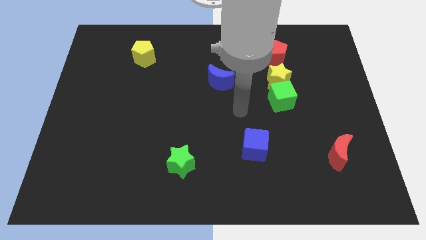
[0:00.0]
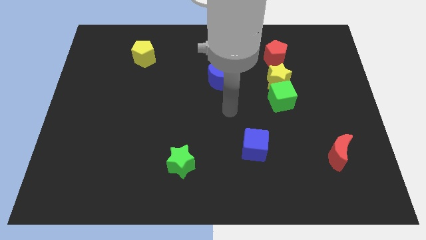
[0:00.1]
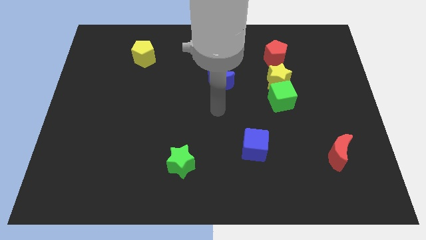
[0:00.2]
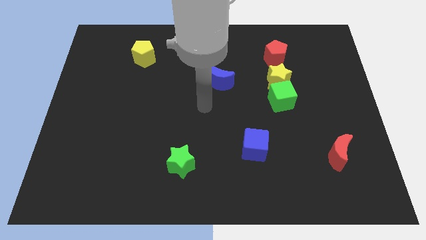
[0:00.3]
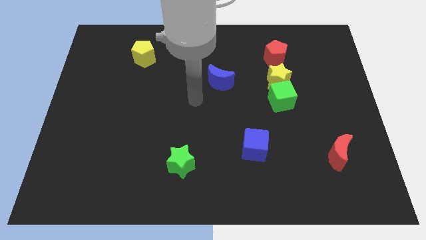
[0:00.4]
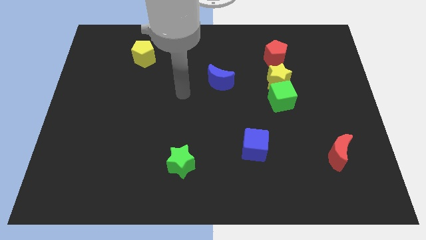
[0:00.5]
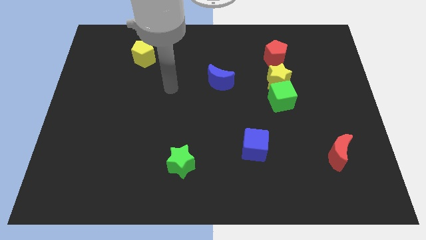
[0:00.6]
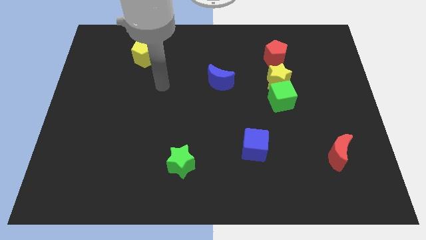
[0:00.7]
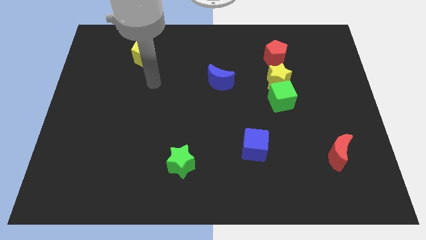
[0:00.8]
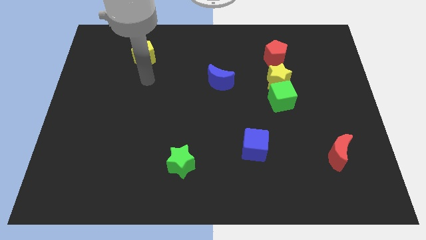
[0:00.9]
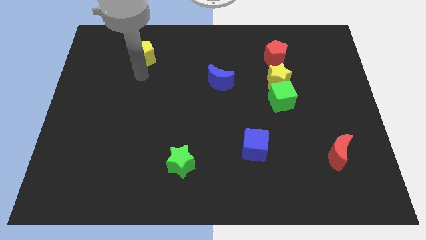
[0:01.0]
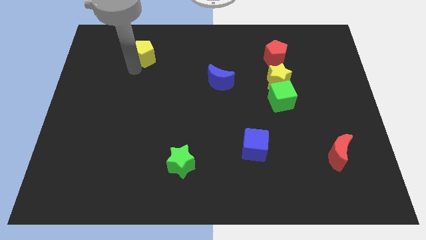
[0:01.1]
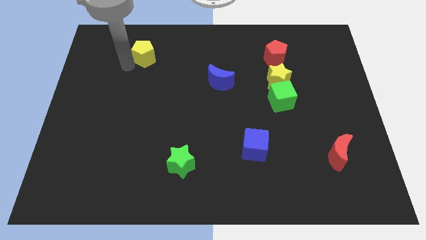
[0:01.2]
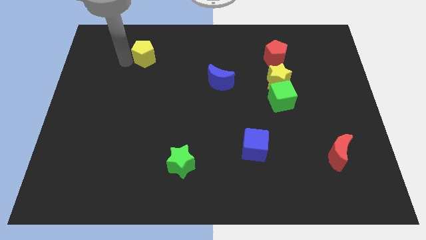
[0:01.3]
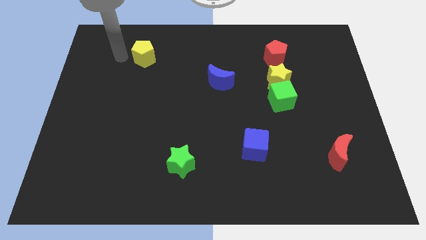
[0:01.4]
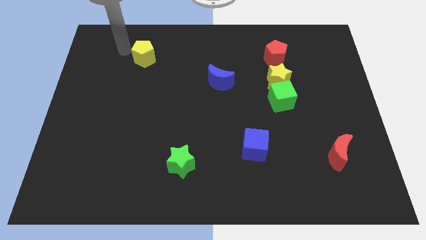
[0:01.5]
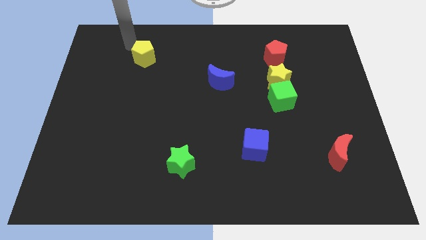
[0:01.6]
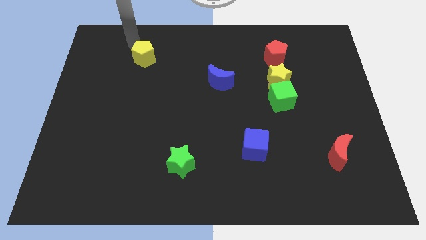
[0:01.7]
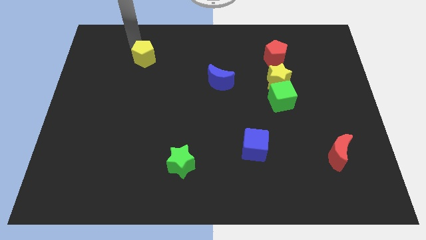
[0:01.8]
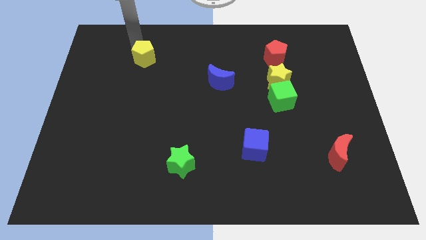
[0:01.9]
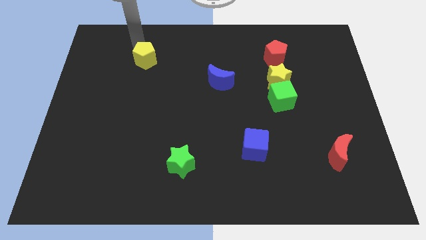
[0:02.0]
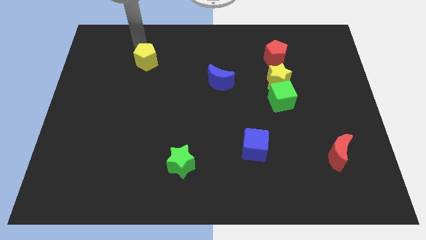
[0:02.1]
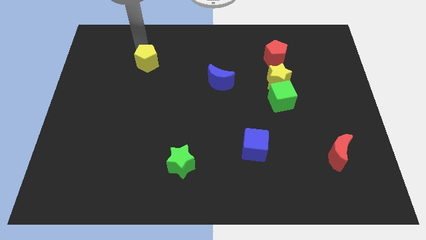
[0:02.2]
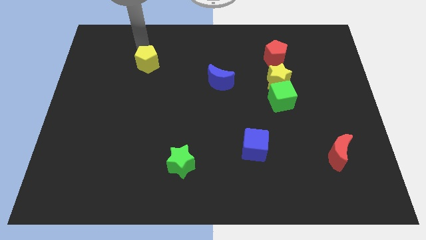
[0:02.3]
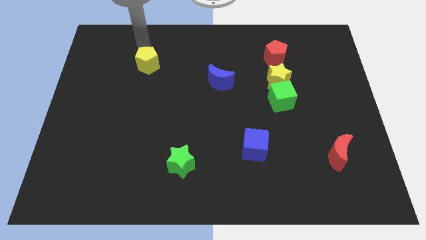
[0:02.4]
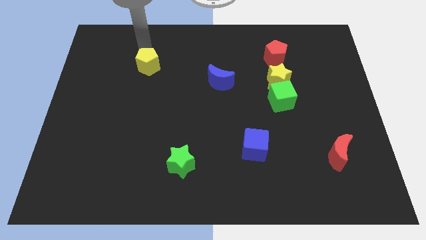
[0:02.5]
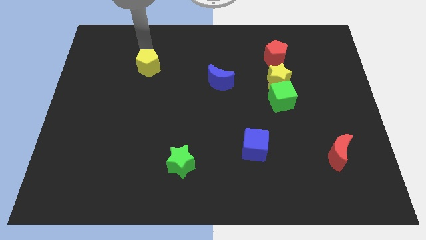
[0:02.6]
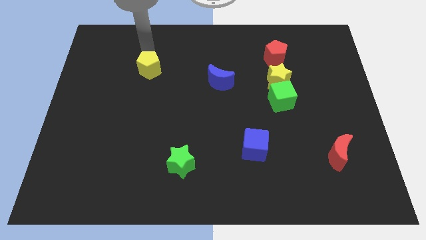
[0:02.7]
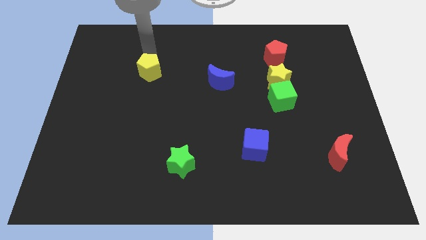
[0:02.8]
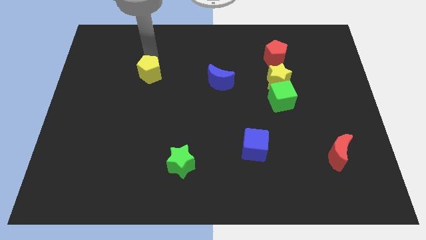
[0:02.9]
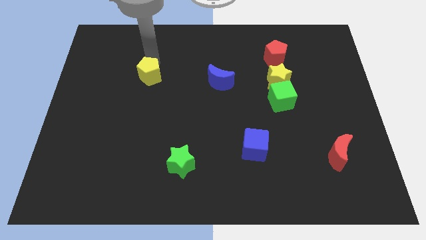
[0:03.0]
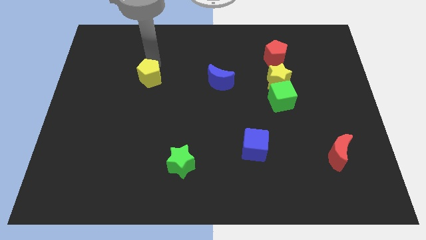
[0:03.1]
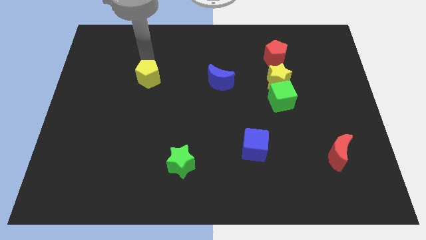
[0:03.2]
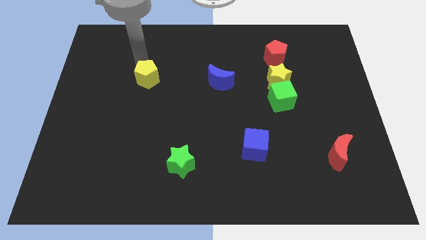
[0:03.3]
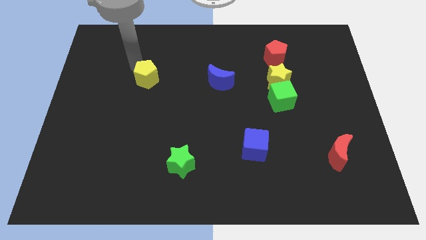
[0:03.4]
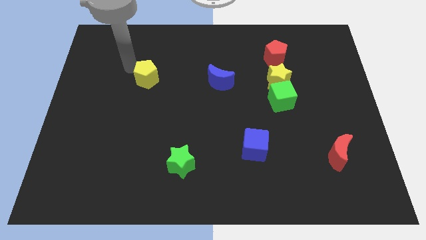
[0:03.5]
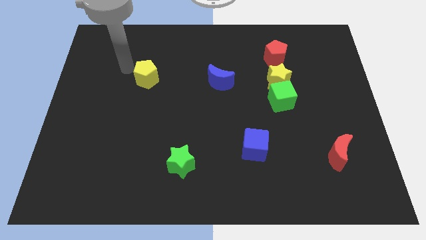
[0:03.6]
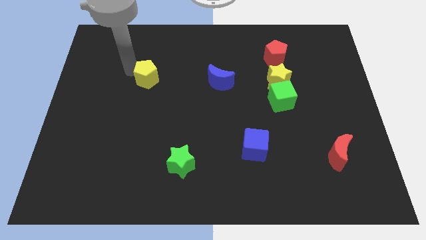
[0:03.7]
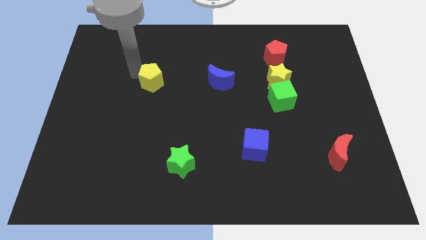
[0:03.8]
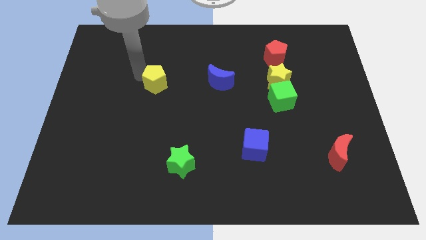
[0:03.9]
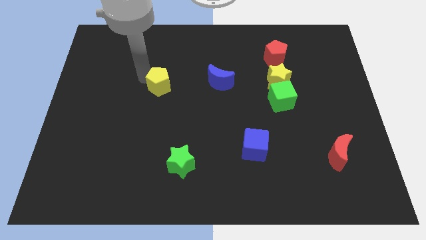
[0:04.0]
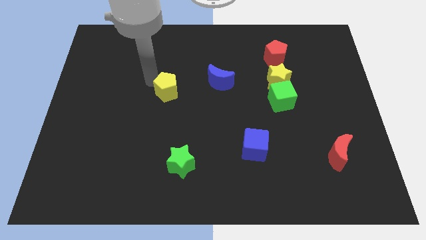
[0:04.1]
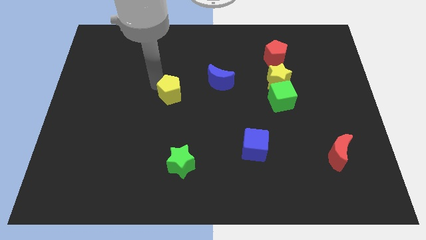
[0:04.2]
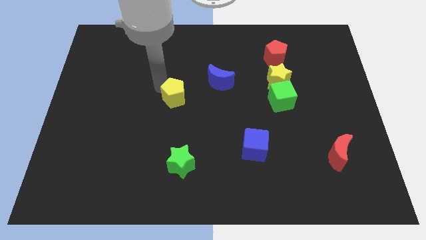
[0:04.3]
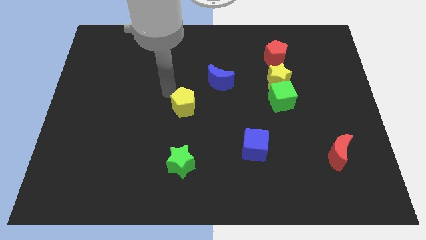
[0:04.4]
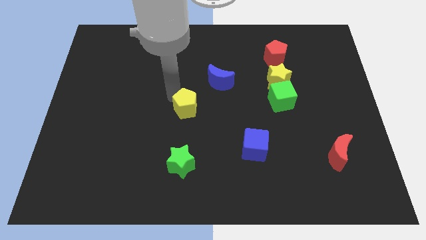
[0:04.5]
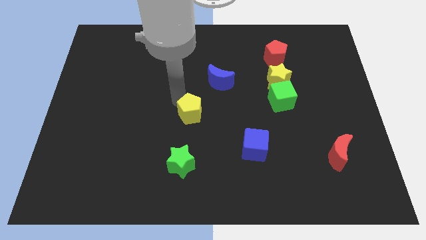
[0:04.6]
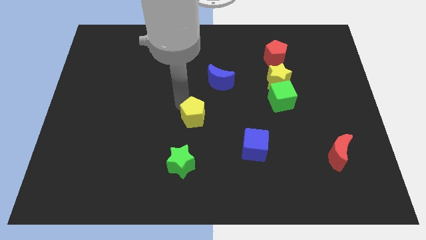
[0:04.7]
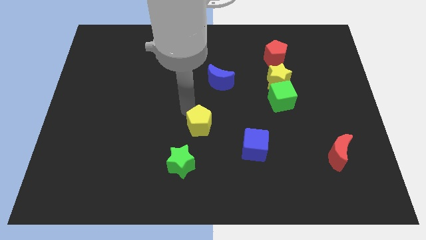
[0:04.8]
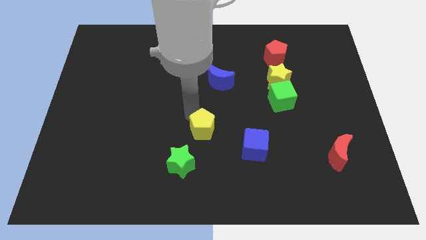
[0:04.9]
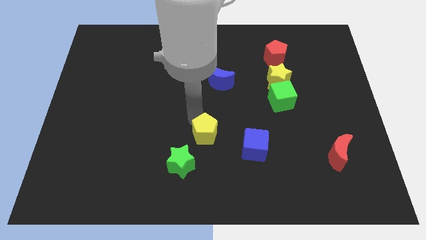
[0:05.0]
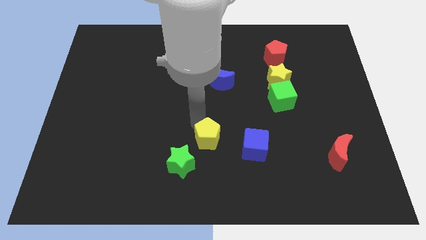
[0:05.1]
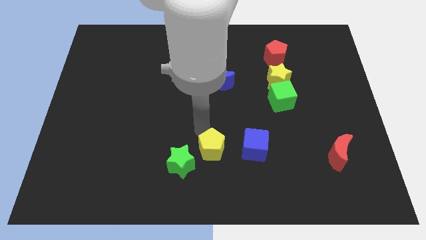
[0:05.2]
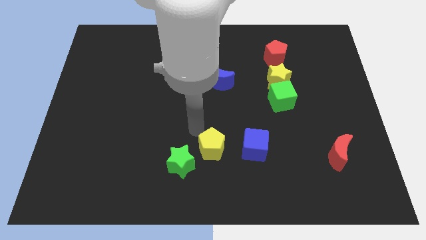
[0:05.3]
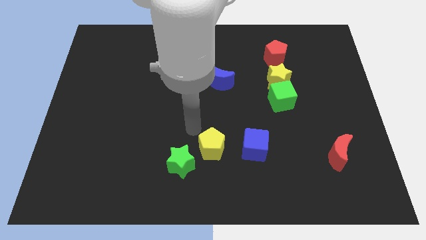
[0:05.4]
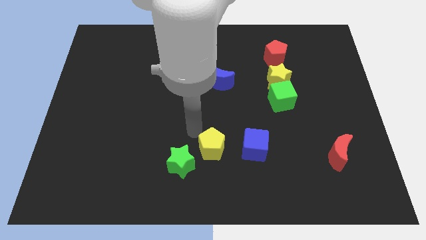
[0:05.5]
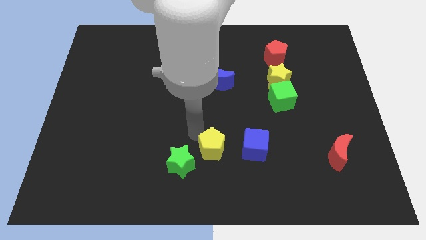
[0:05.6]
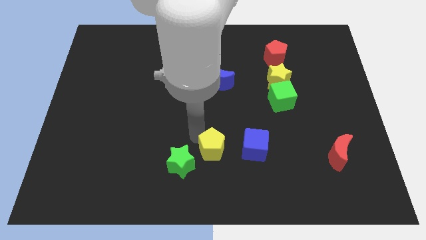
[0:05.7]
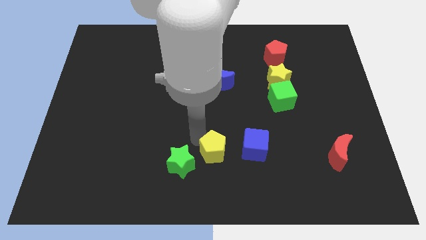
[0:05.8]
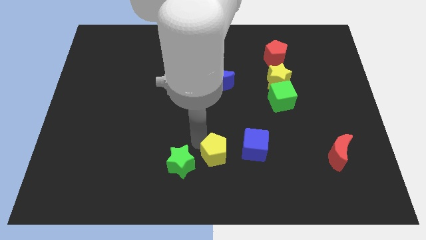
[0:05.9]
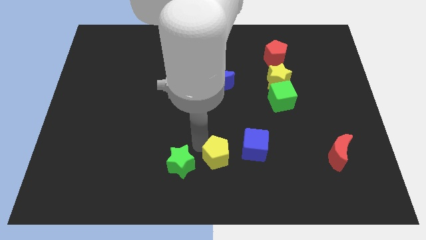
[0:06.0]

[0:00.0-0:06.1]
move the yellow pentagon to the bottom left of the blue cube

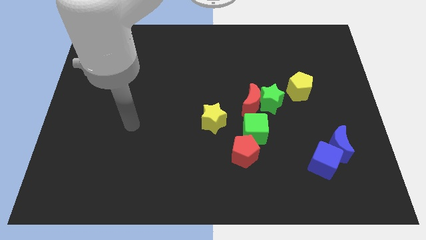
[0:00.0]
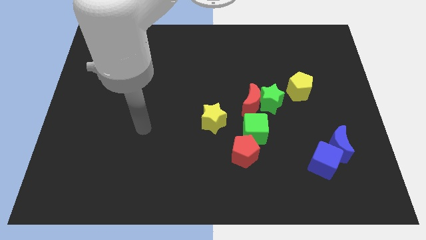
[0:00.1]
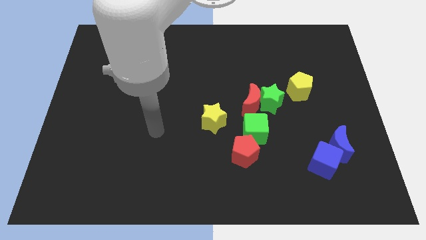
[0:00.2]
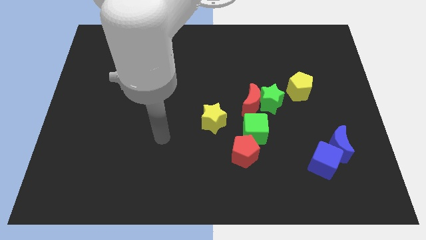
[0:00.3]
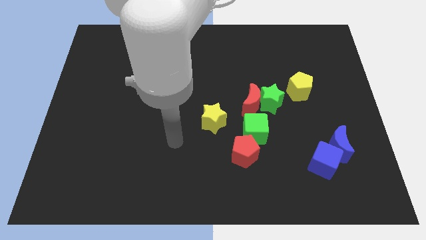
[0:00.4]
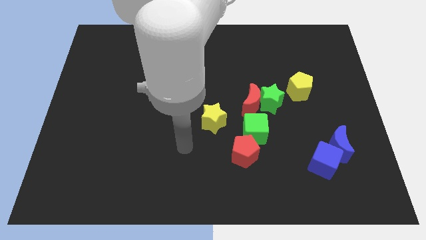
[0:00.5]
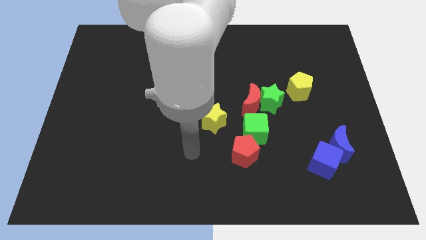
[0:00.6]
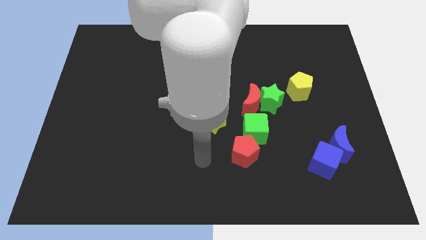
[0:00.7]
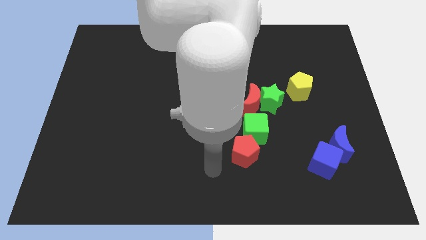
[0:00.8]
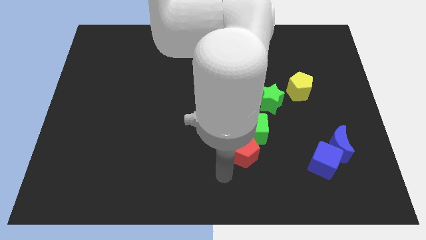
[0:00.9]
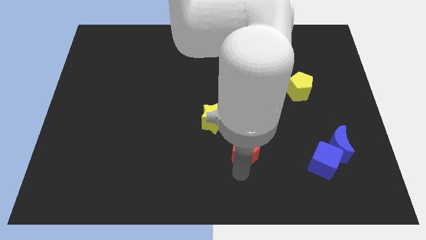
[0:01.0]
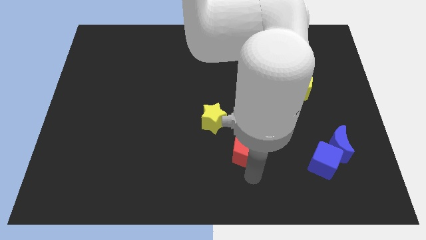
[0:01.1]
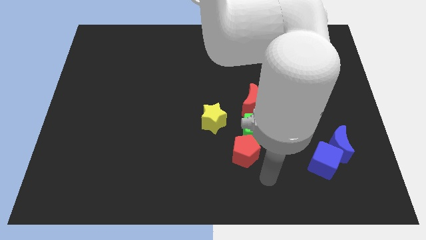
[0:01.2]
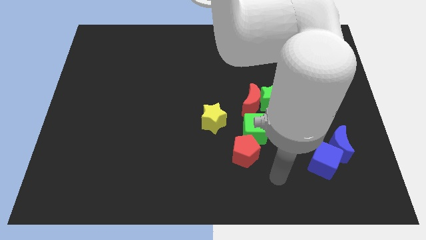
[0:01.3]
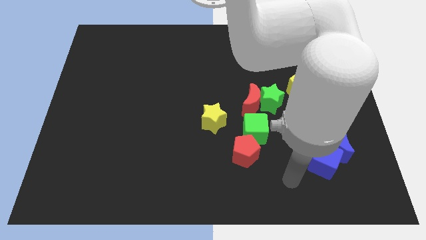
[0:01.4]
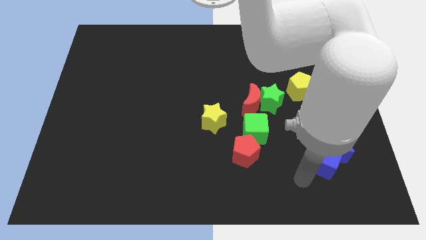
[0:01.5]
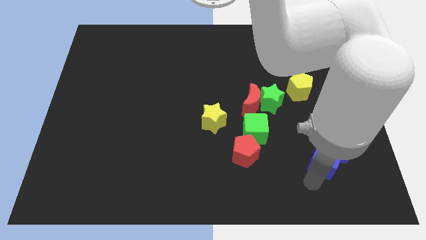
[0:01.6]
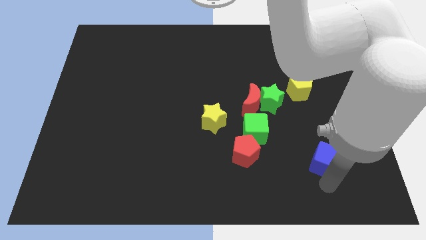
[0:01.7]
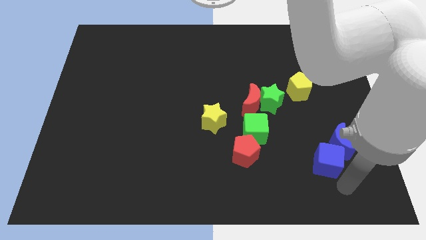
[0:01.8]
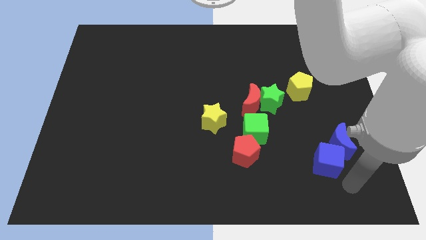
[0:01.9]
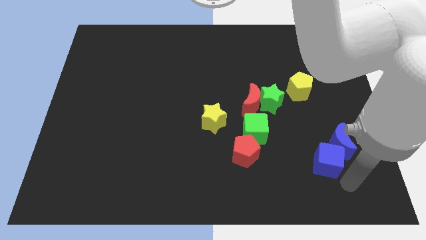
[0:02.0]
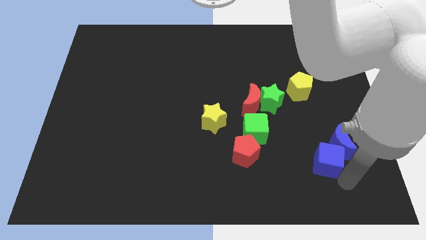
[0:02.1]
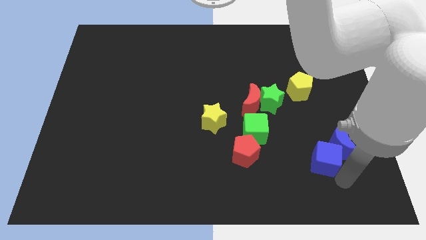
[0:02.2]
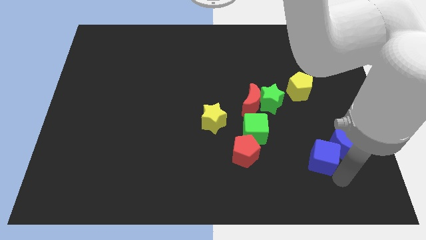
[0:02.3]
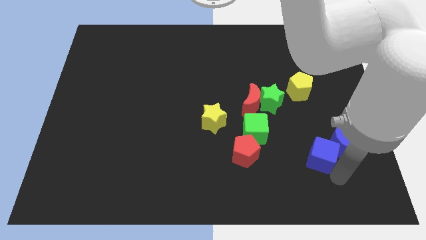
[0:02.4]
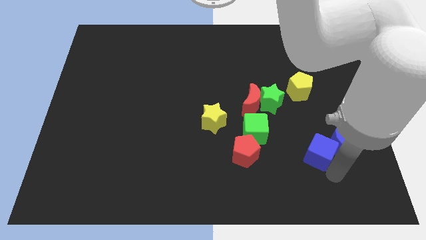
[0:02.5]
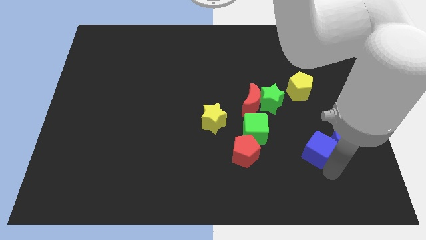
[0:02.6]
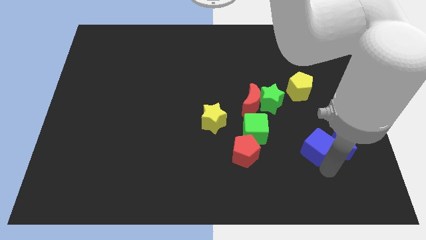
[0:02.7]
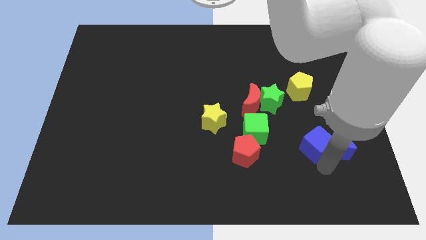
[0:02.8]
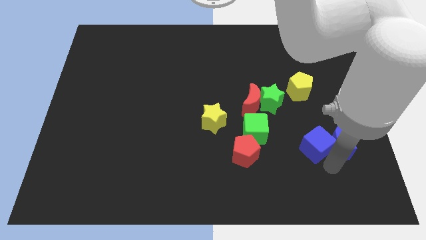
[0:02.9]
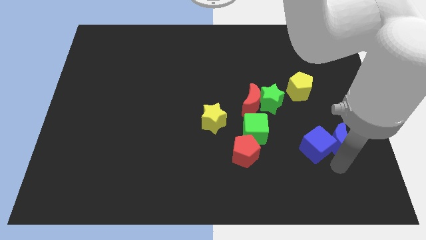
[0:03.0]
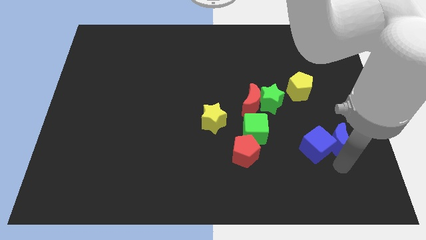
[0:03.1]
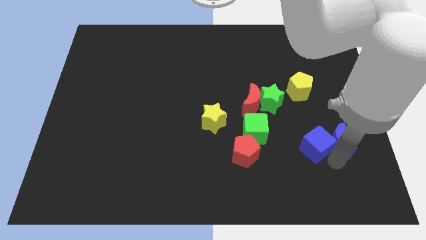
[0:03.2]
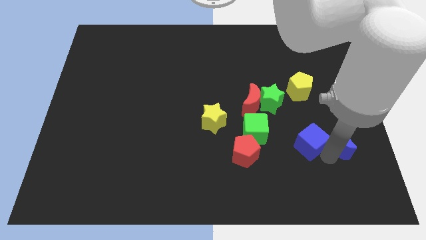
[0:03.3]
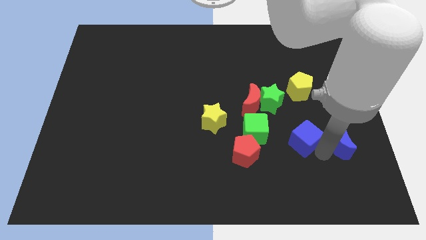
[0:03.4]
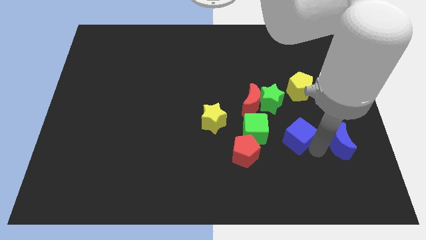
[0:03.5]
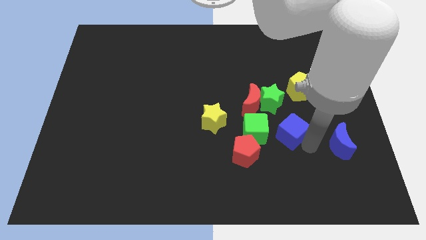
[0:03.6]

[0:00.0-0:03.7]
move the blue cube to the bottom right of the red moon
